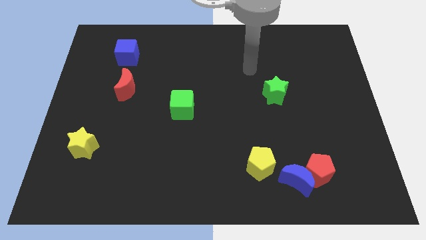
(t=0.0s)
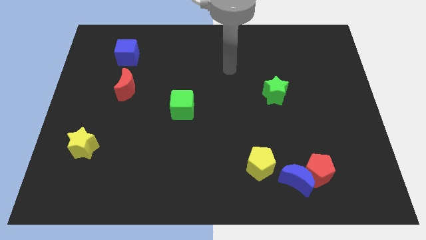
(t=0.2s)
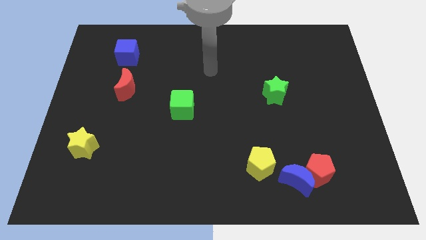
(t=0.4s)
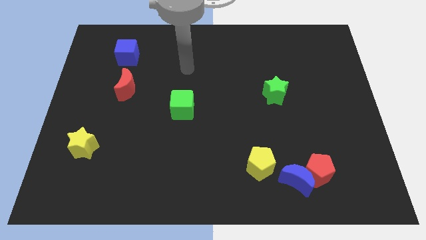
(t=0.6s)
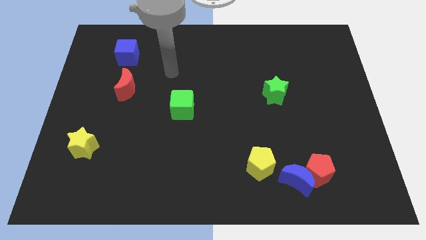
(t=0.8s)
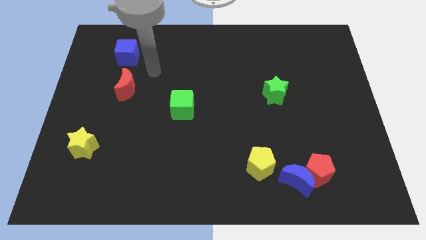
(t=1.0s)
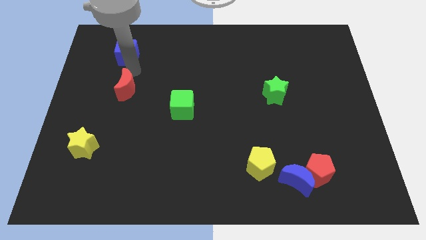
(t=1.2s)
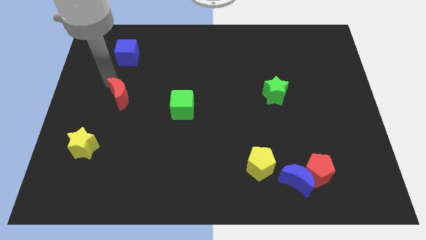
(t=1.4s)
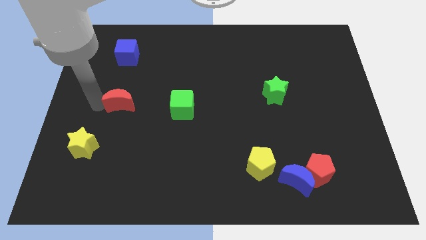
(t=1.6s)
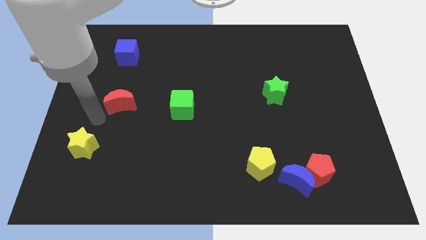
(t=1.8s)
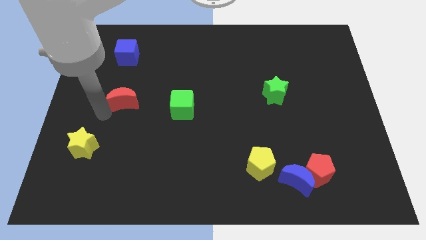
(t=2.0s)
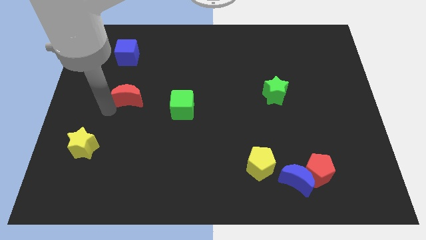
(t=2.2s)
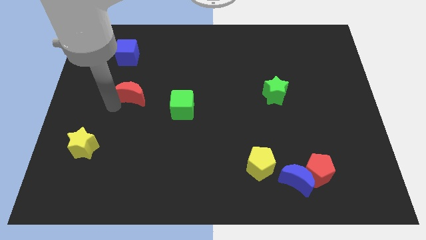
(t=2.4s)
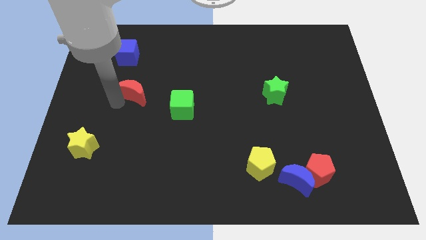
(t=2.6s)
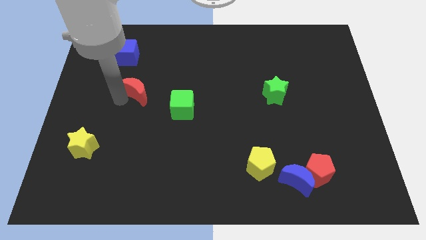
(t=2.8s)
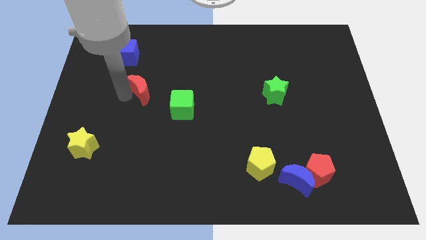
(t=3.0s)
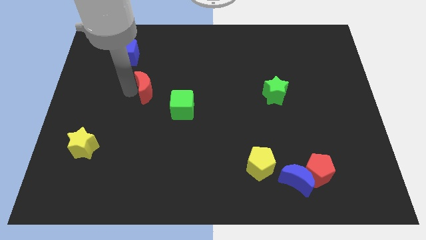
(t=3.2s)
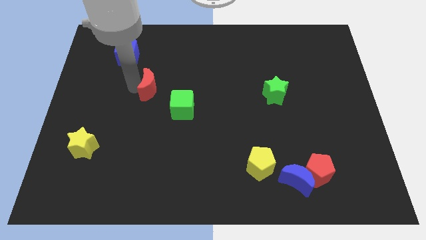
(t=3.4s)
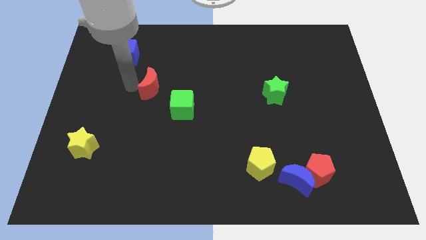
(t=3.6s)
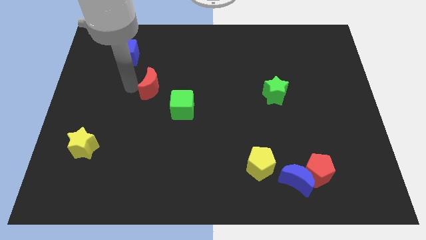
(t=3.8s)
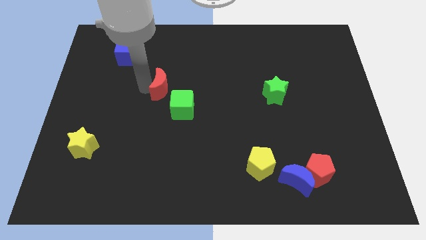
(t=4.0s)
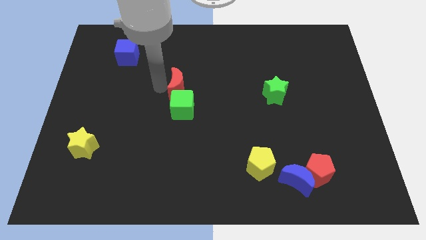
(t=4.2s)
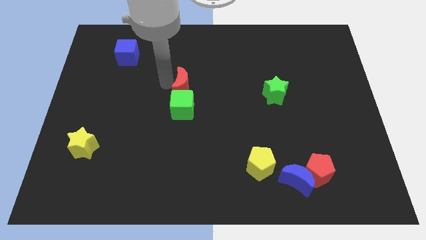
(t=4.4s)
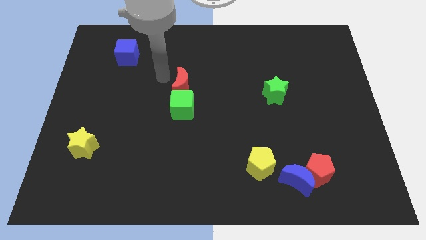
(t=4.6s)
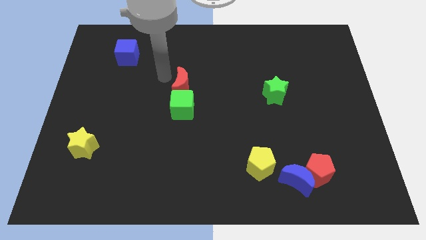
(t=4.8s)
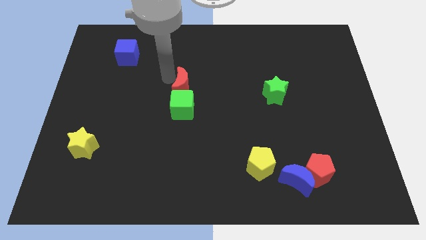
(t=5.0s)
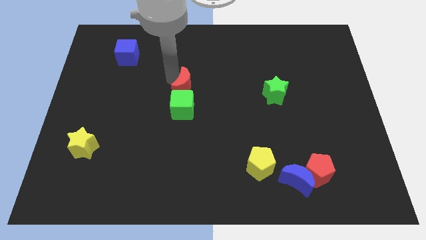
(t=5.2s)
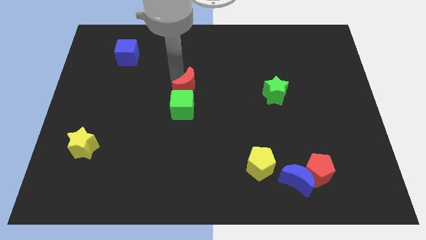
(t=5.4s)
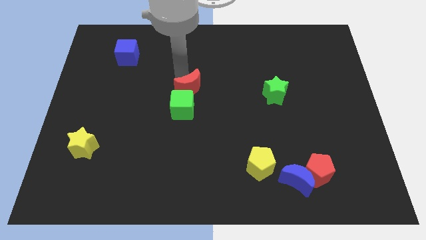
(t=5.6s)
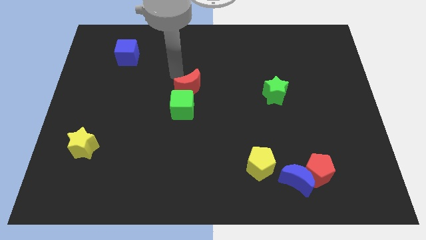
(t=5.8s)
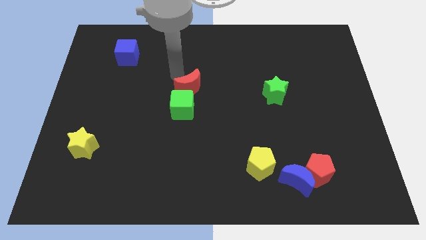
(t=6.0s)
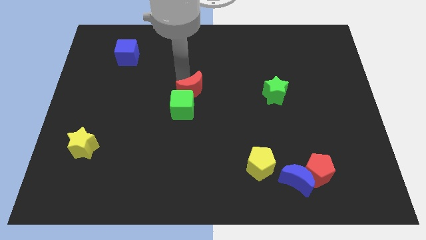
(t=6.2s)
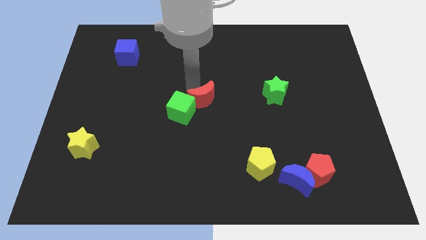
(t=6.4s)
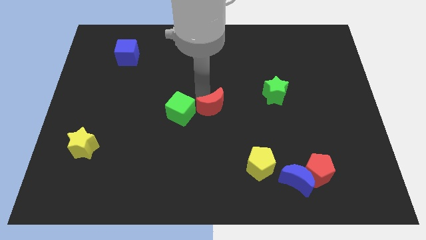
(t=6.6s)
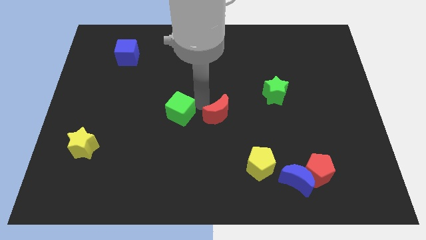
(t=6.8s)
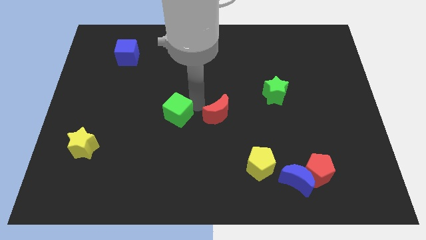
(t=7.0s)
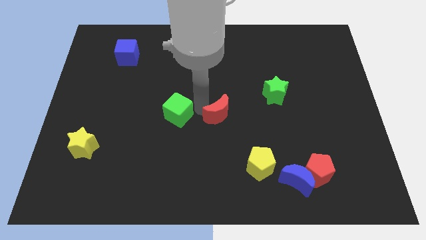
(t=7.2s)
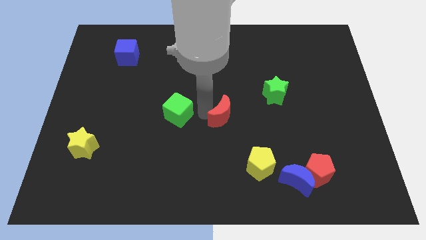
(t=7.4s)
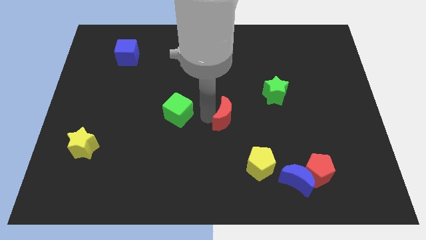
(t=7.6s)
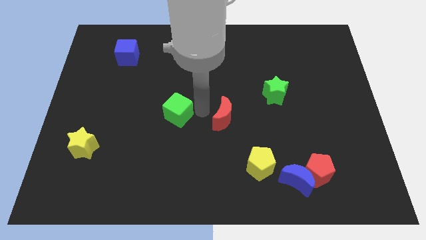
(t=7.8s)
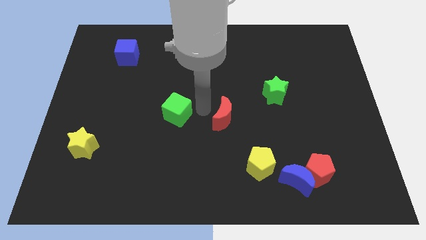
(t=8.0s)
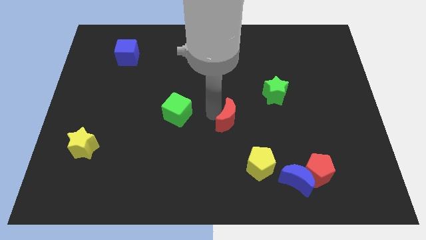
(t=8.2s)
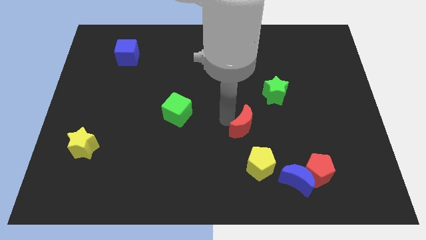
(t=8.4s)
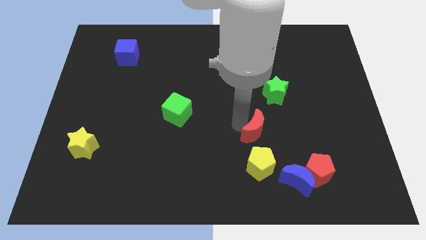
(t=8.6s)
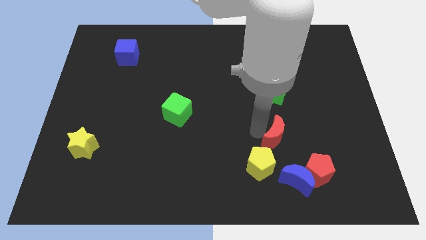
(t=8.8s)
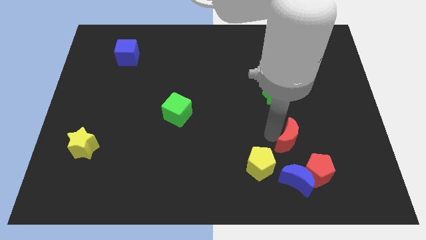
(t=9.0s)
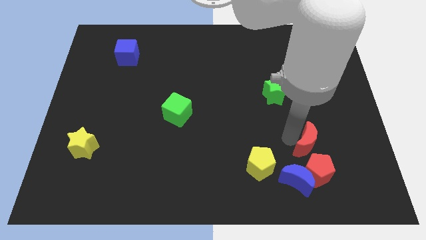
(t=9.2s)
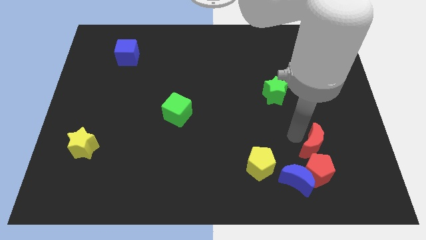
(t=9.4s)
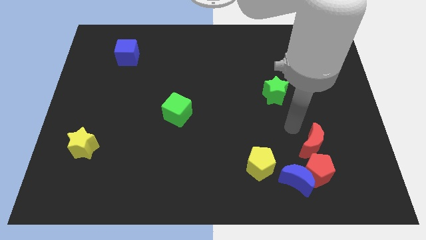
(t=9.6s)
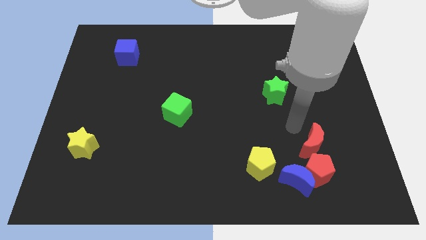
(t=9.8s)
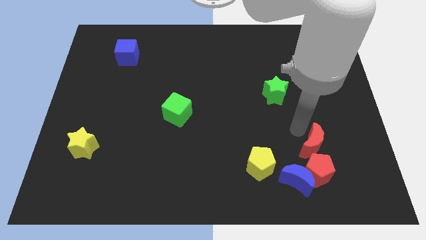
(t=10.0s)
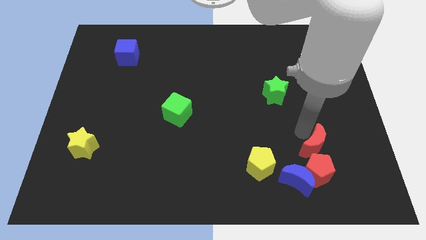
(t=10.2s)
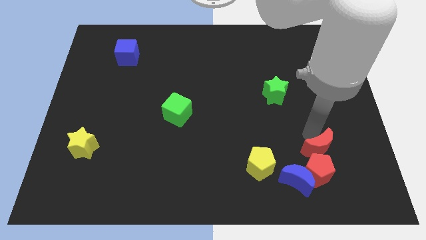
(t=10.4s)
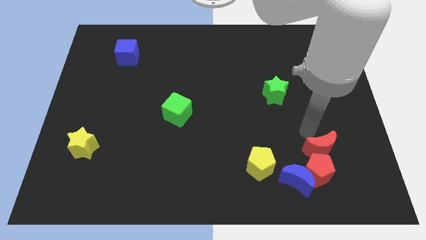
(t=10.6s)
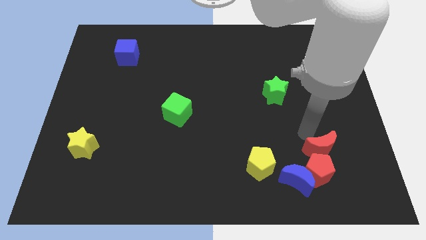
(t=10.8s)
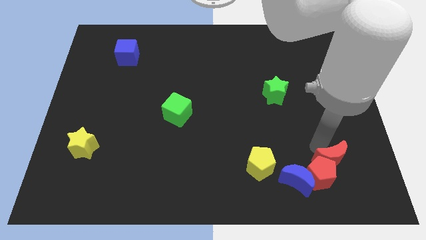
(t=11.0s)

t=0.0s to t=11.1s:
push the red moon to the right of the blue moon

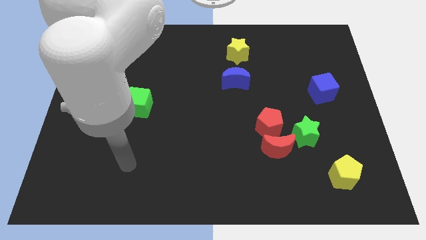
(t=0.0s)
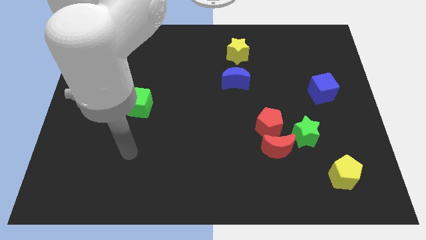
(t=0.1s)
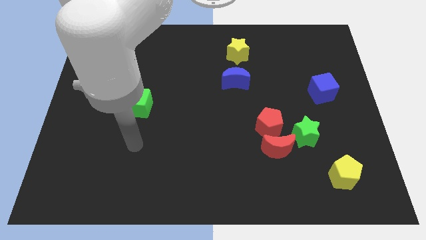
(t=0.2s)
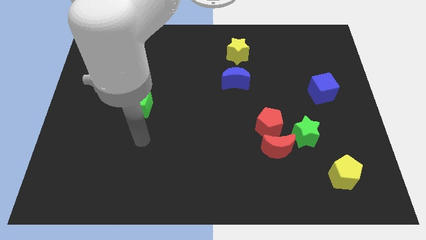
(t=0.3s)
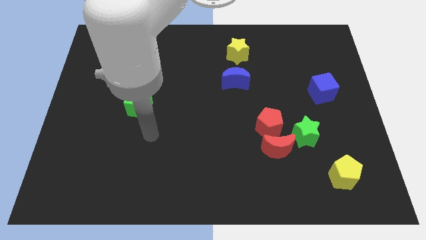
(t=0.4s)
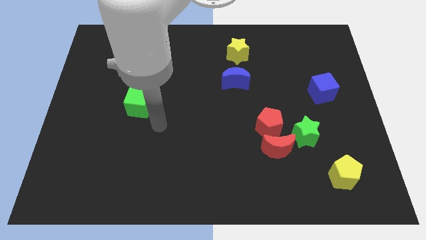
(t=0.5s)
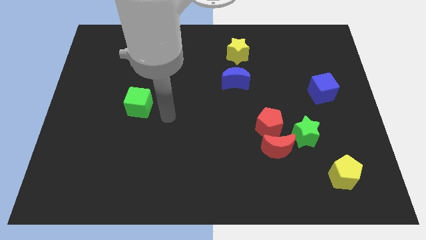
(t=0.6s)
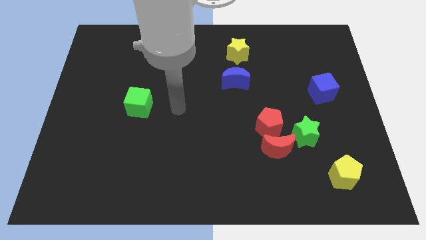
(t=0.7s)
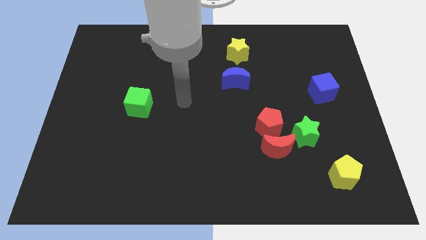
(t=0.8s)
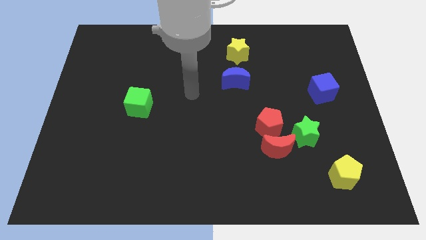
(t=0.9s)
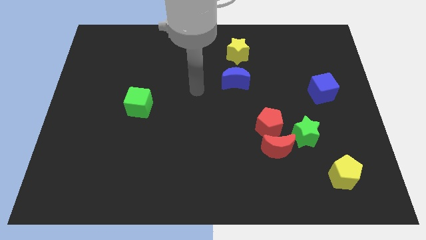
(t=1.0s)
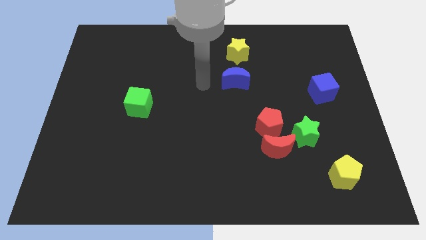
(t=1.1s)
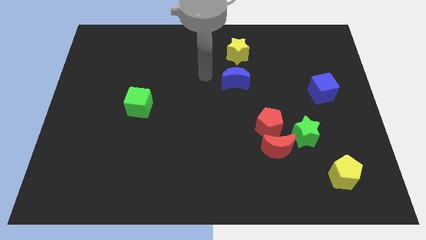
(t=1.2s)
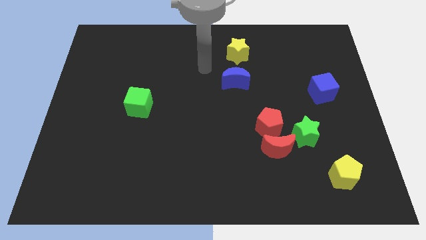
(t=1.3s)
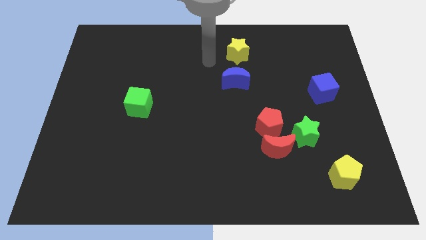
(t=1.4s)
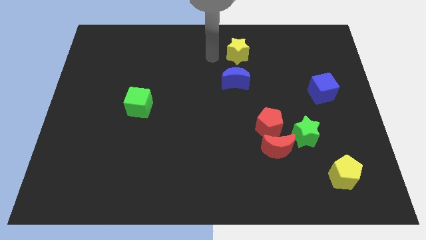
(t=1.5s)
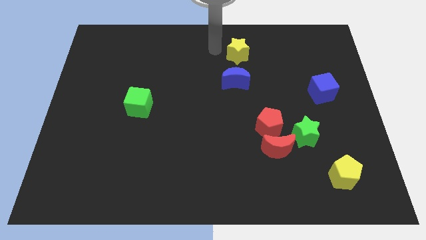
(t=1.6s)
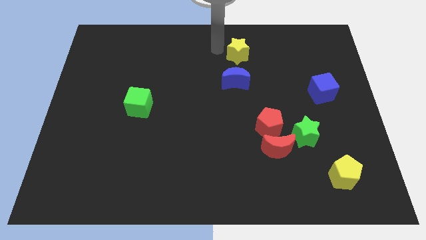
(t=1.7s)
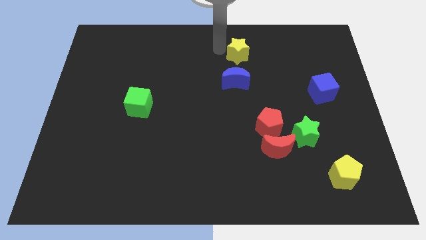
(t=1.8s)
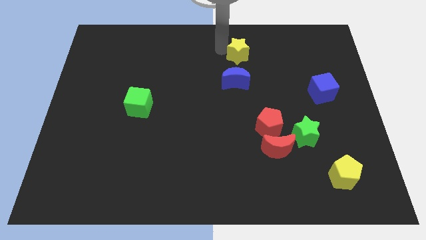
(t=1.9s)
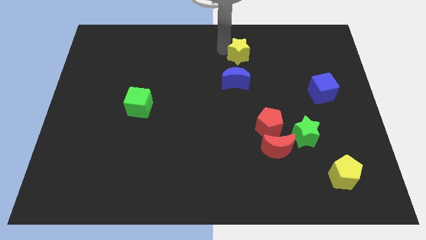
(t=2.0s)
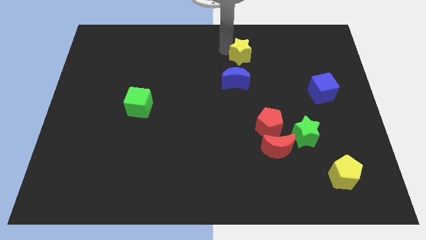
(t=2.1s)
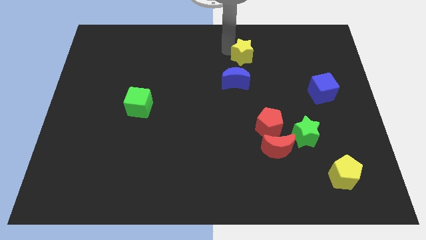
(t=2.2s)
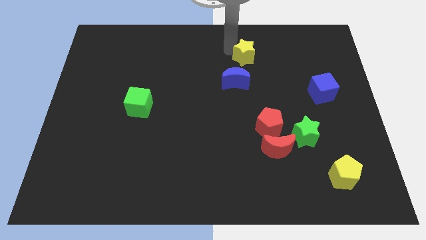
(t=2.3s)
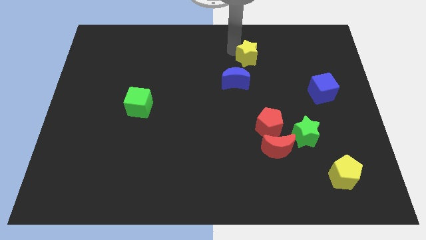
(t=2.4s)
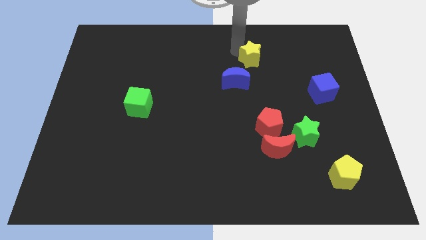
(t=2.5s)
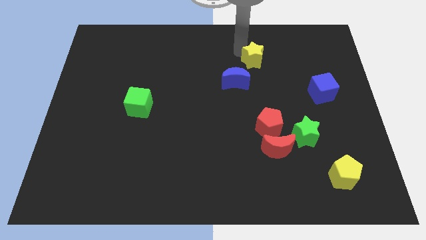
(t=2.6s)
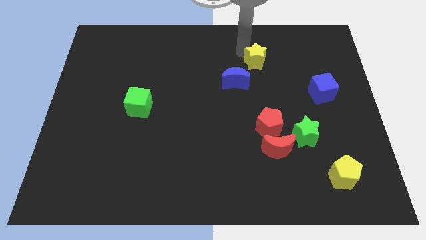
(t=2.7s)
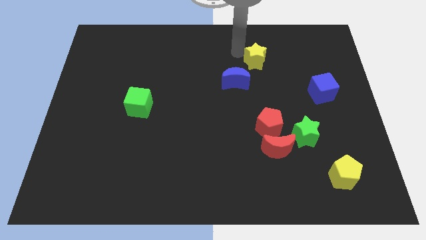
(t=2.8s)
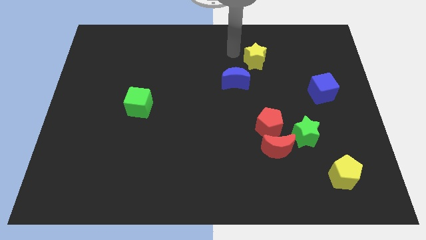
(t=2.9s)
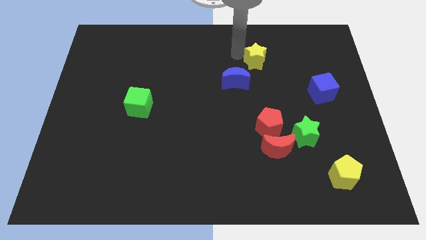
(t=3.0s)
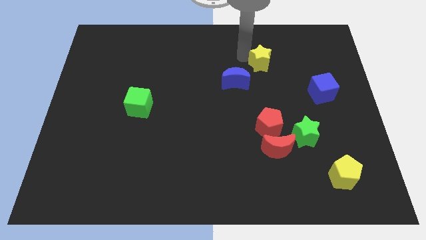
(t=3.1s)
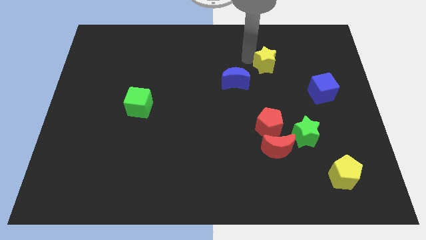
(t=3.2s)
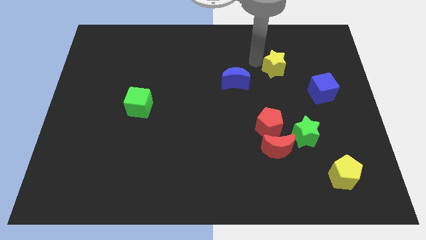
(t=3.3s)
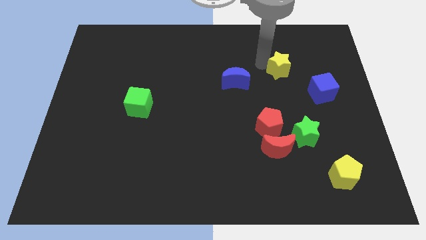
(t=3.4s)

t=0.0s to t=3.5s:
put the yellow star diagonally up and to the left of the blue cube
